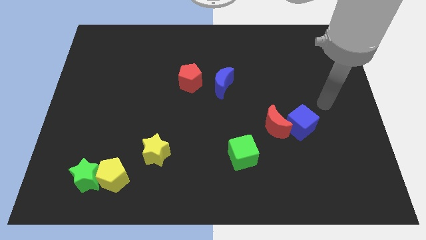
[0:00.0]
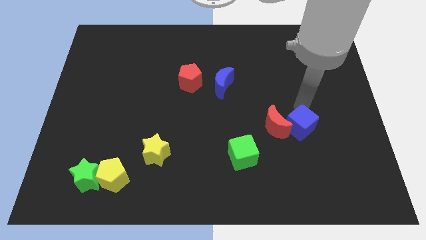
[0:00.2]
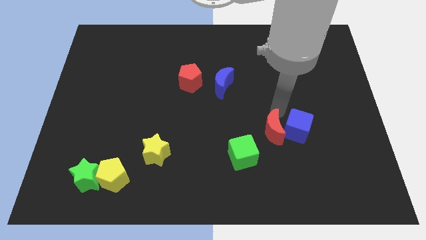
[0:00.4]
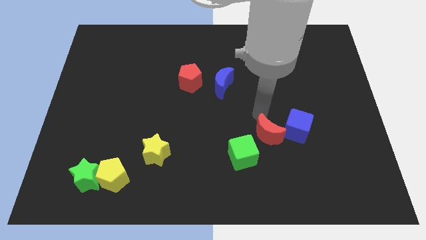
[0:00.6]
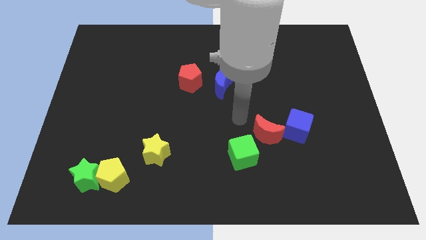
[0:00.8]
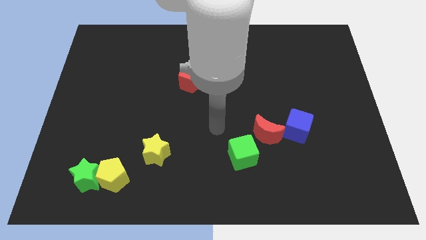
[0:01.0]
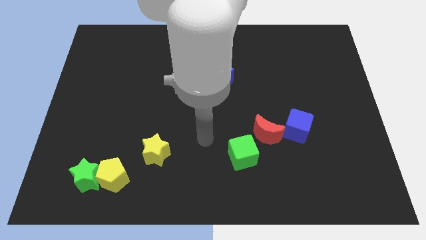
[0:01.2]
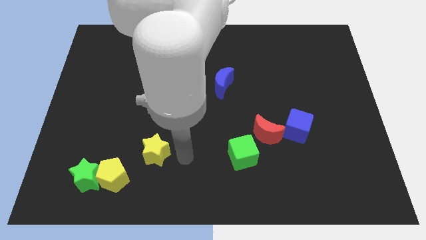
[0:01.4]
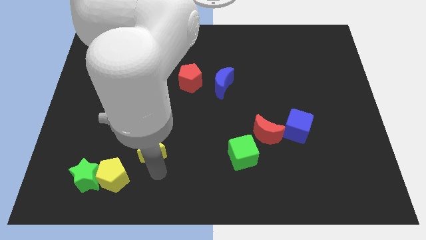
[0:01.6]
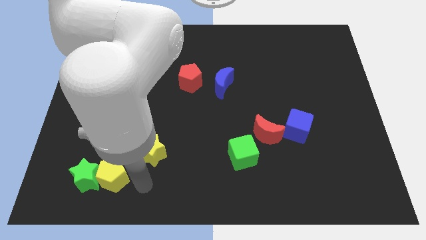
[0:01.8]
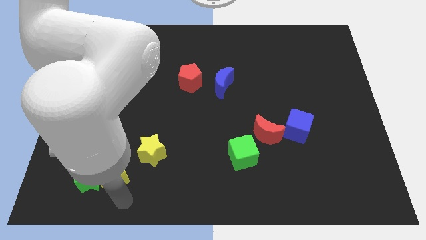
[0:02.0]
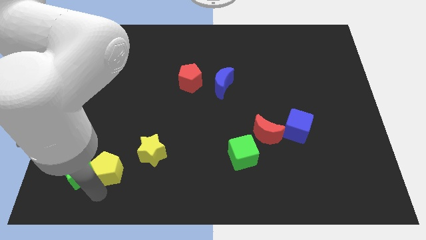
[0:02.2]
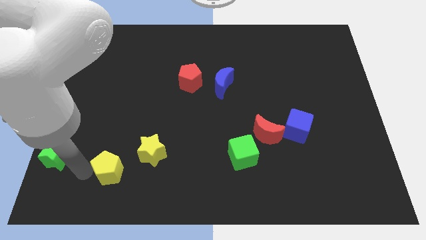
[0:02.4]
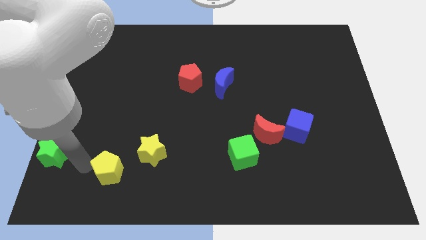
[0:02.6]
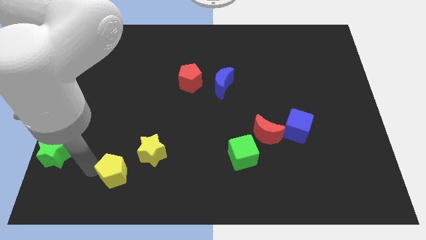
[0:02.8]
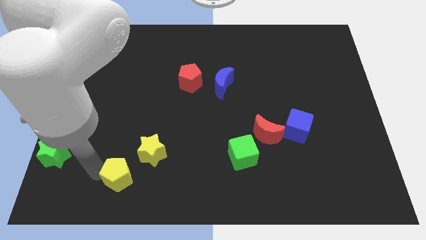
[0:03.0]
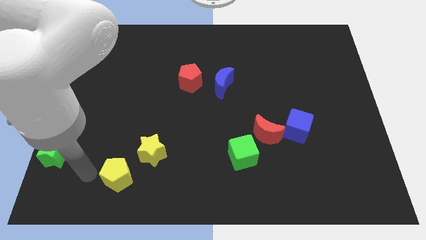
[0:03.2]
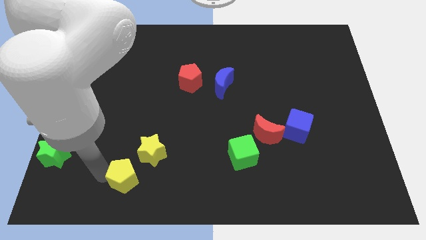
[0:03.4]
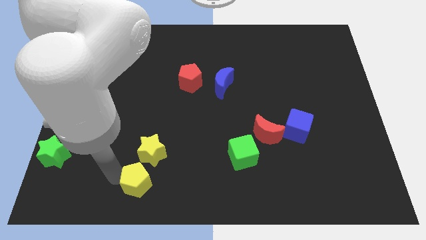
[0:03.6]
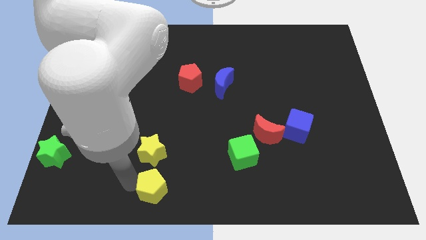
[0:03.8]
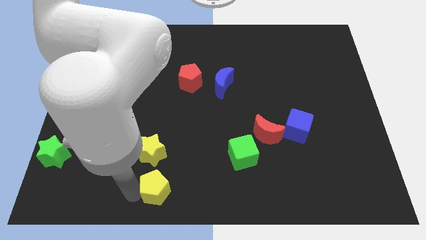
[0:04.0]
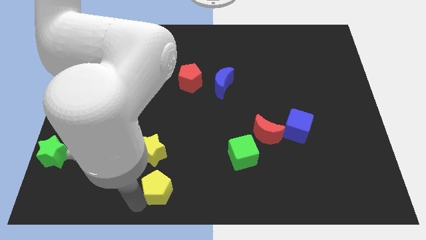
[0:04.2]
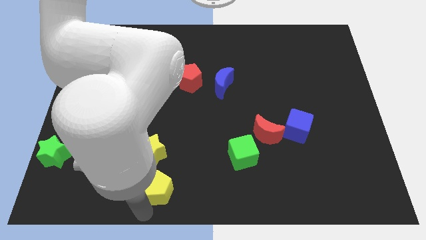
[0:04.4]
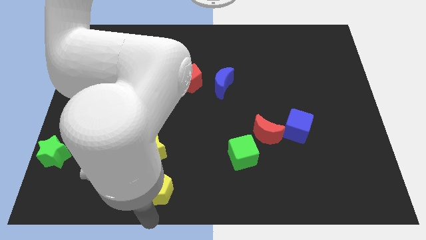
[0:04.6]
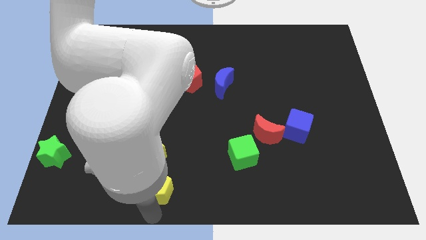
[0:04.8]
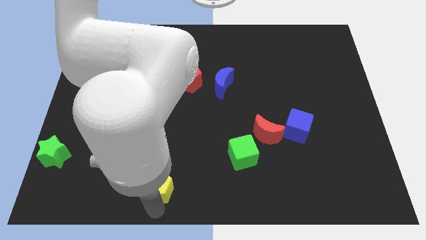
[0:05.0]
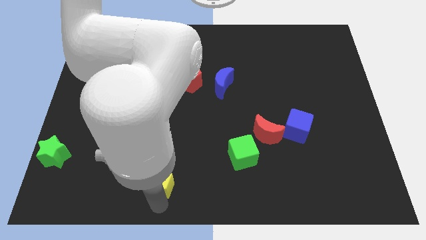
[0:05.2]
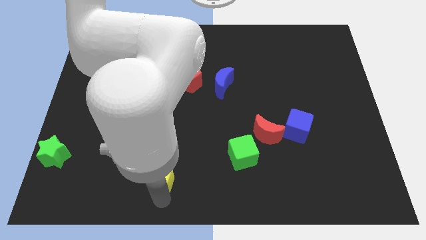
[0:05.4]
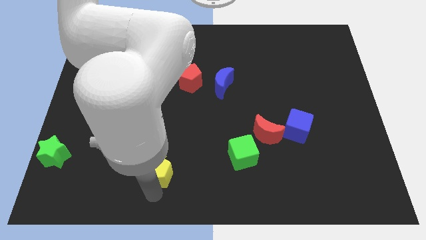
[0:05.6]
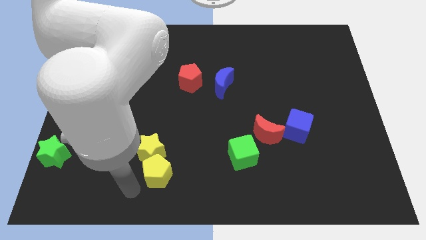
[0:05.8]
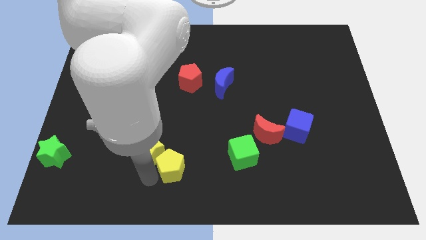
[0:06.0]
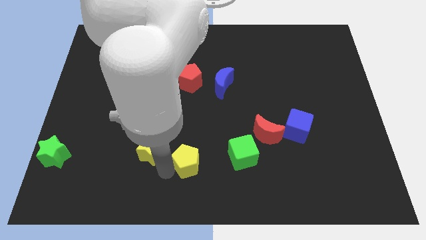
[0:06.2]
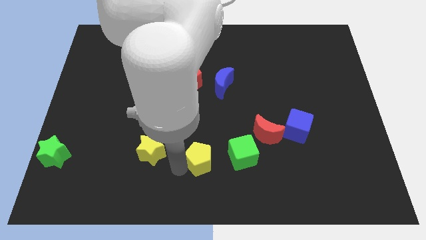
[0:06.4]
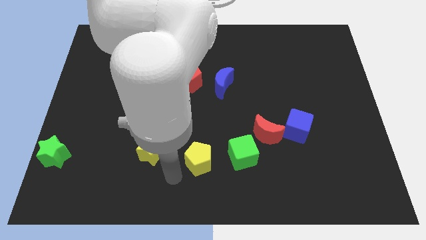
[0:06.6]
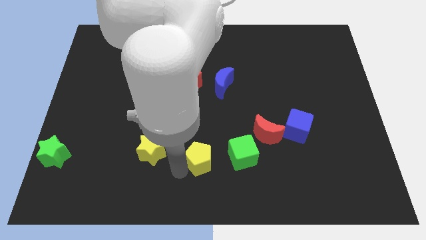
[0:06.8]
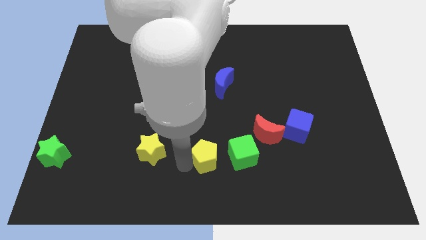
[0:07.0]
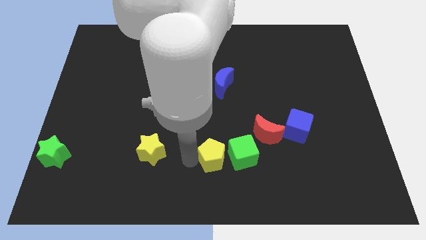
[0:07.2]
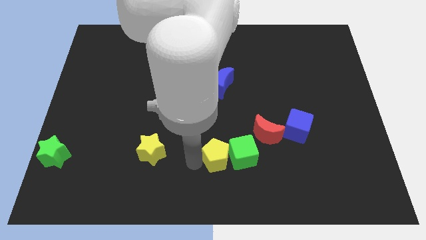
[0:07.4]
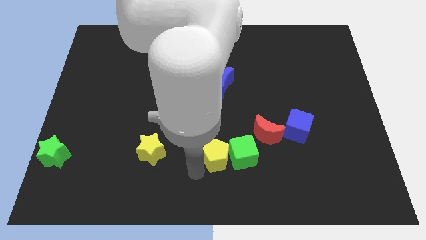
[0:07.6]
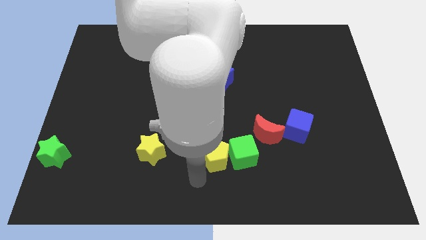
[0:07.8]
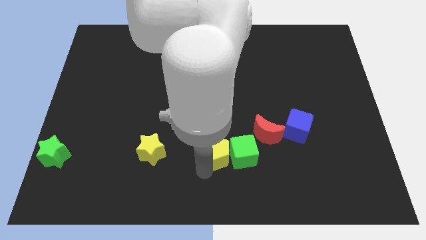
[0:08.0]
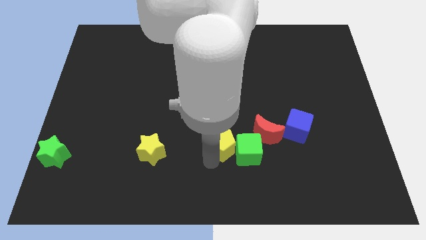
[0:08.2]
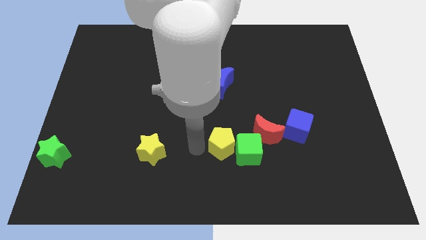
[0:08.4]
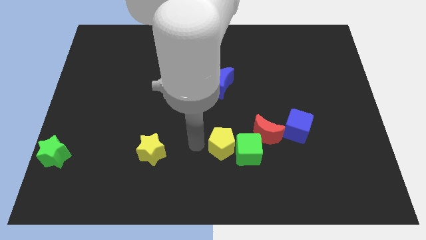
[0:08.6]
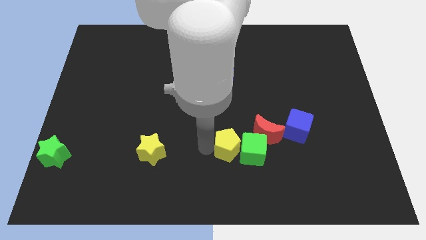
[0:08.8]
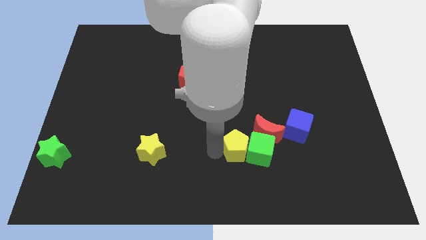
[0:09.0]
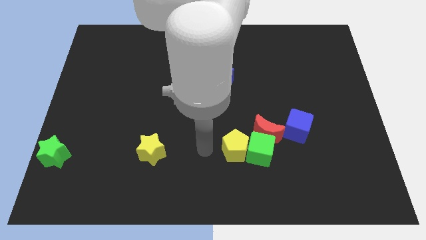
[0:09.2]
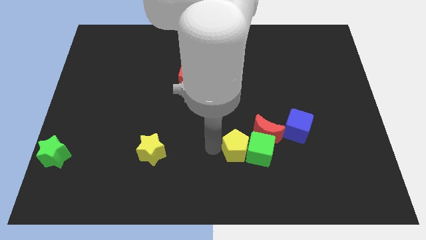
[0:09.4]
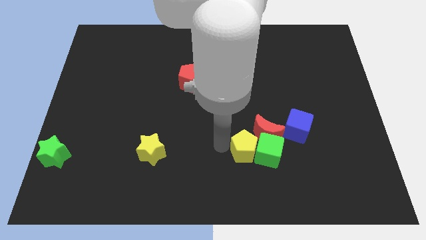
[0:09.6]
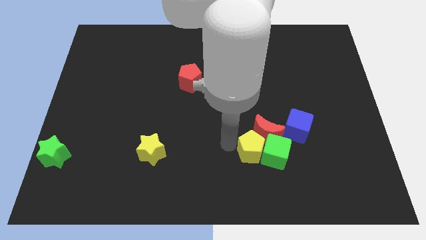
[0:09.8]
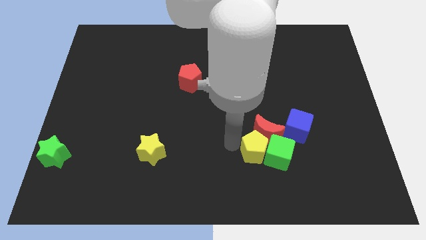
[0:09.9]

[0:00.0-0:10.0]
put the yellow pentagon to the bottom left of the blue cube

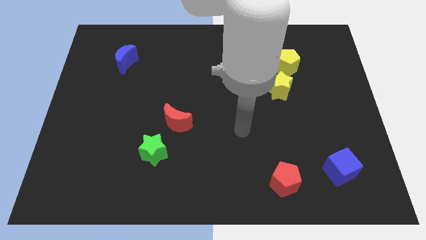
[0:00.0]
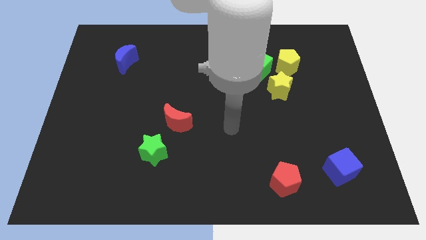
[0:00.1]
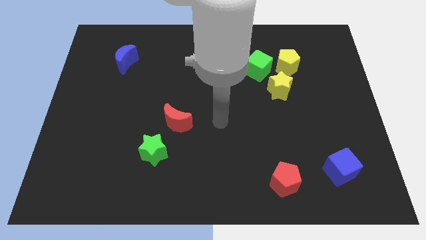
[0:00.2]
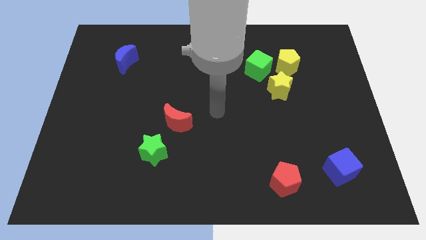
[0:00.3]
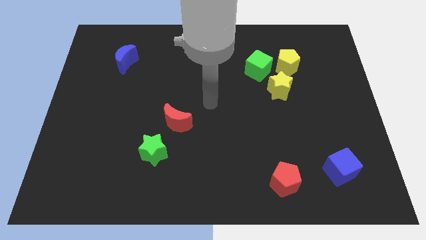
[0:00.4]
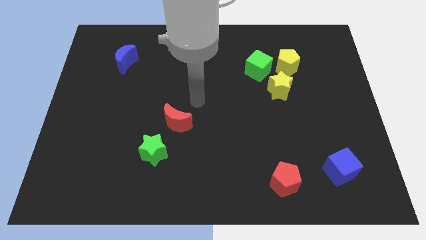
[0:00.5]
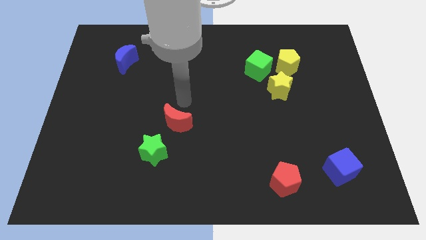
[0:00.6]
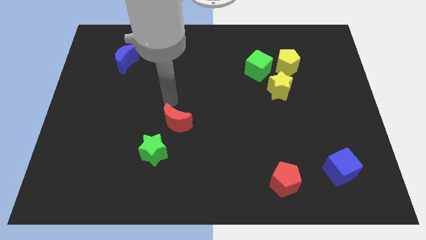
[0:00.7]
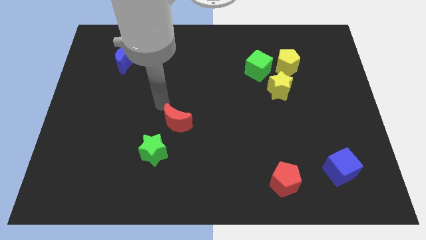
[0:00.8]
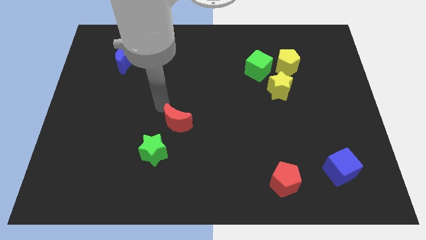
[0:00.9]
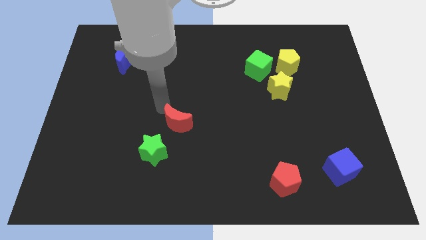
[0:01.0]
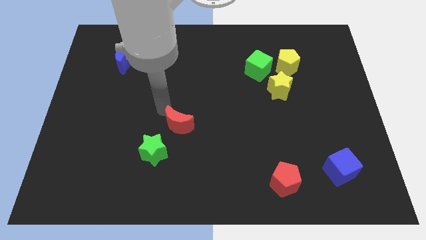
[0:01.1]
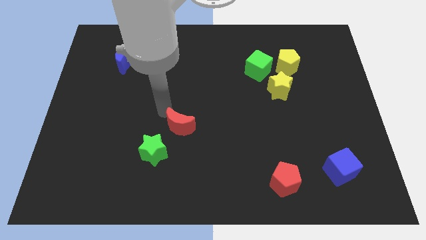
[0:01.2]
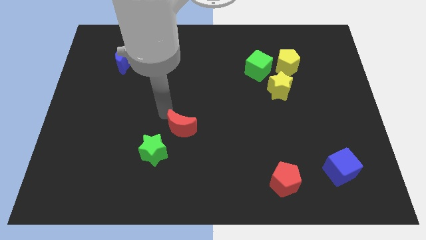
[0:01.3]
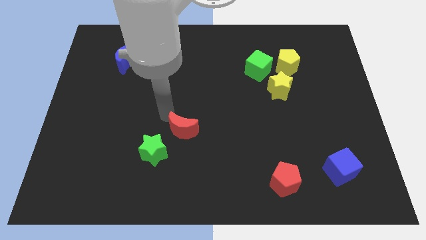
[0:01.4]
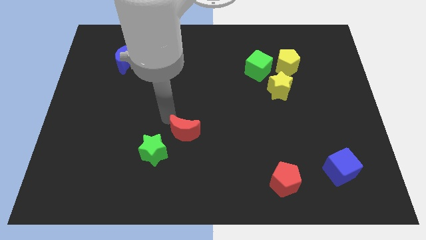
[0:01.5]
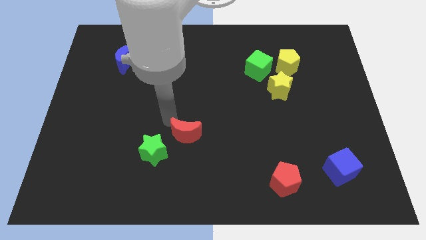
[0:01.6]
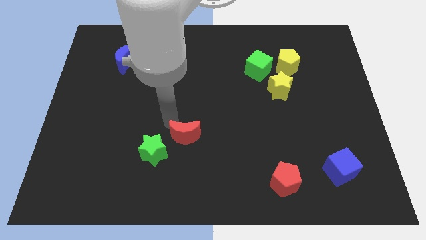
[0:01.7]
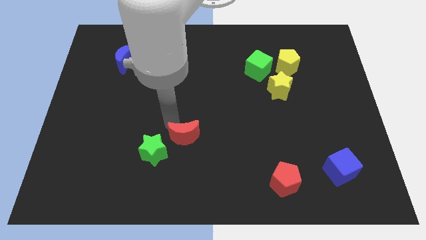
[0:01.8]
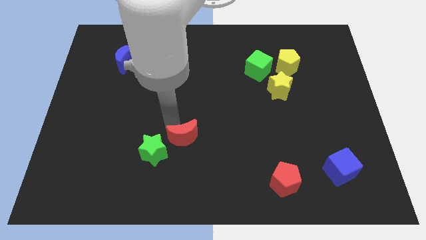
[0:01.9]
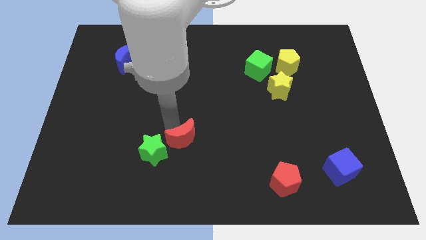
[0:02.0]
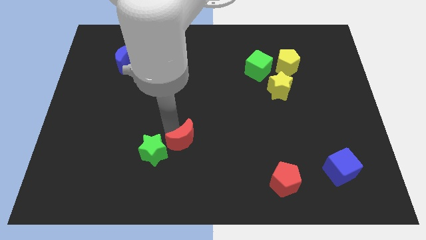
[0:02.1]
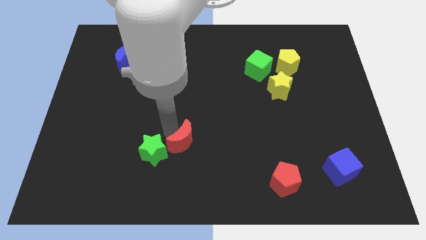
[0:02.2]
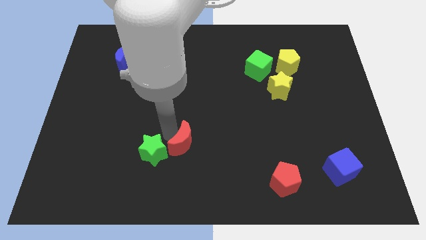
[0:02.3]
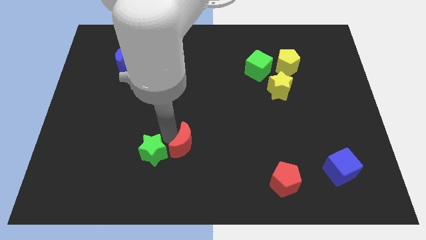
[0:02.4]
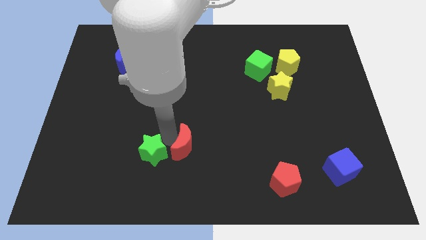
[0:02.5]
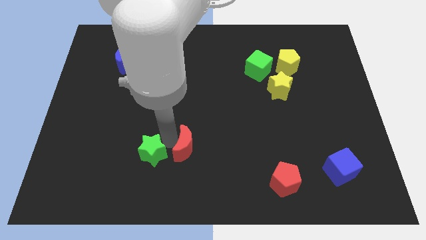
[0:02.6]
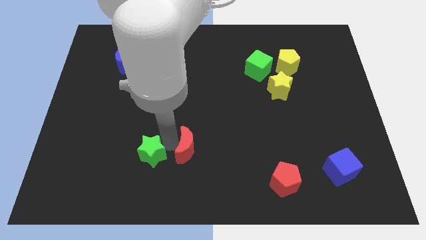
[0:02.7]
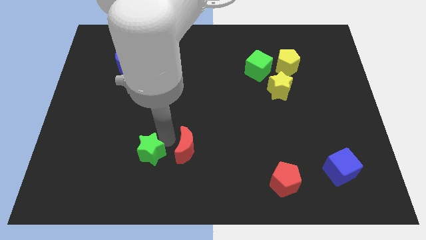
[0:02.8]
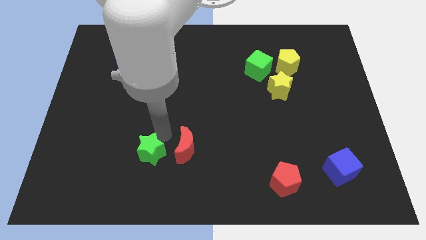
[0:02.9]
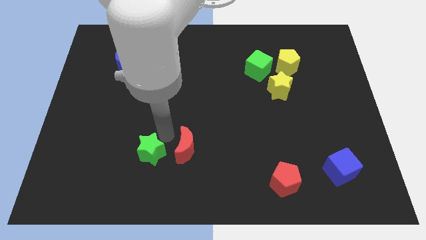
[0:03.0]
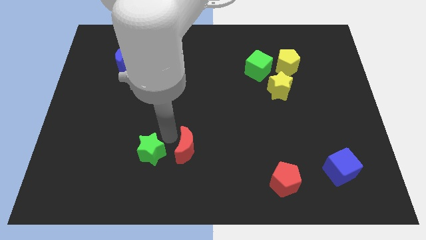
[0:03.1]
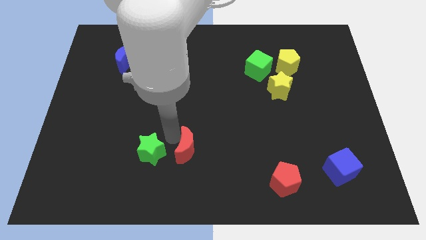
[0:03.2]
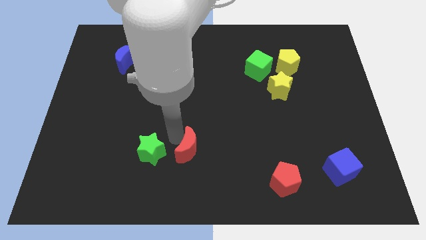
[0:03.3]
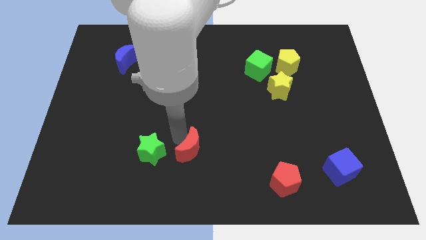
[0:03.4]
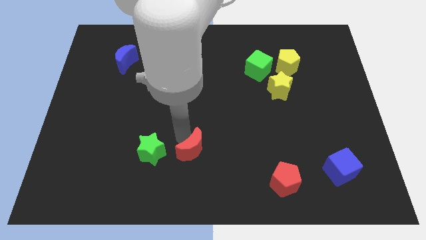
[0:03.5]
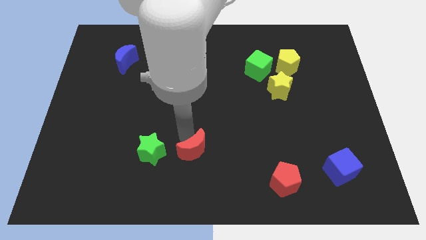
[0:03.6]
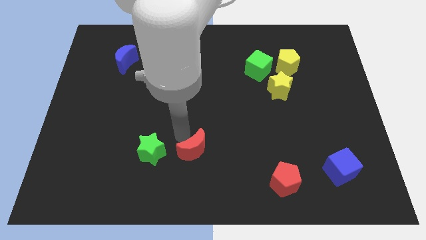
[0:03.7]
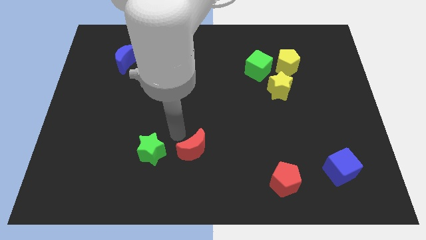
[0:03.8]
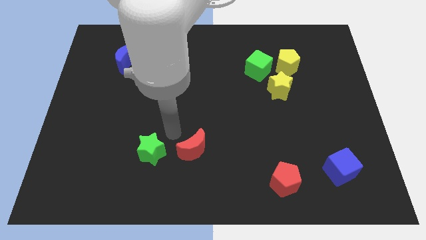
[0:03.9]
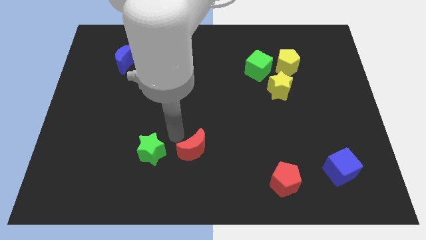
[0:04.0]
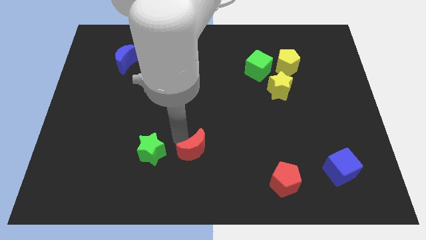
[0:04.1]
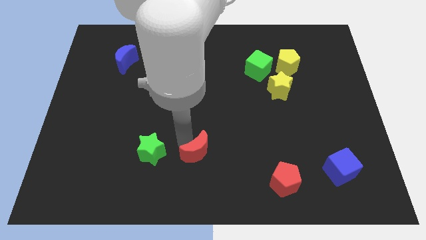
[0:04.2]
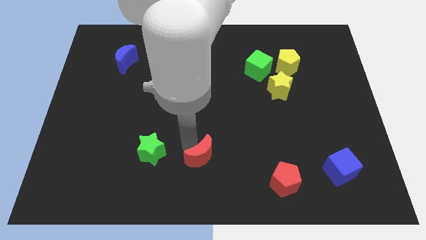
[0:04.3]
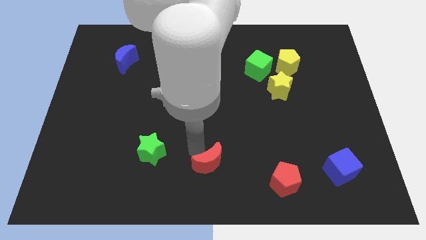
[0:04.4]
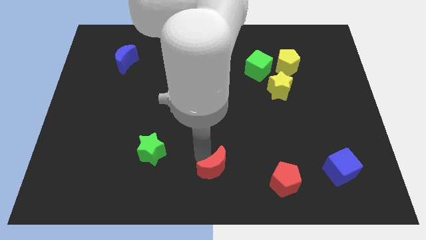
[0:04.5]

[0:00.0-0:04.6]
push the red moon just left of the red pentagon
